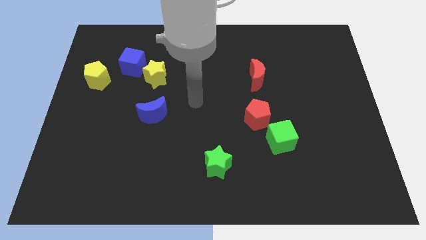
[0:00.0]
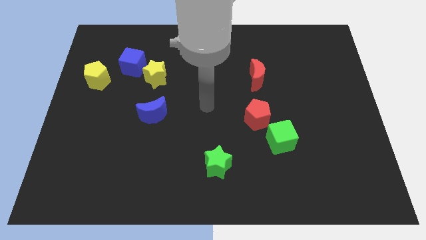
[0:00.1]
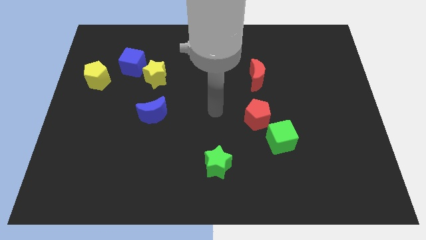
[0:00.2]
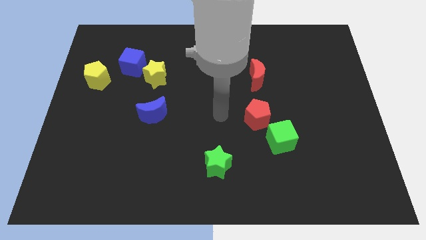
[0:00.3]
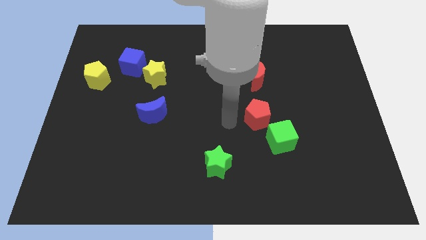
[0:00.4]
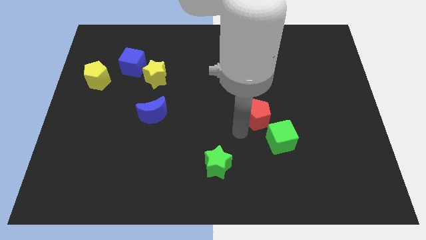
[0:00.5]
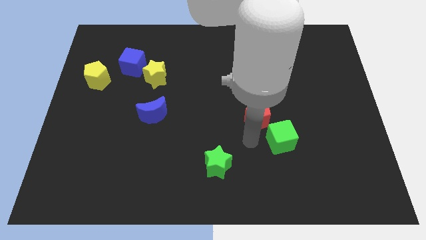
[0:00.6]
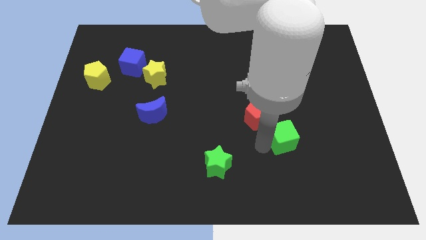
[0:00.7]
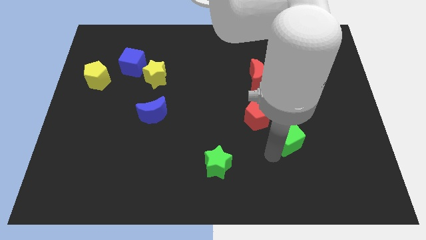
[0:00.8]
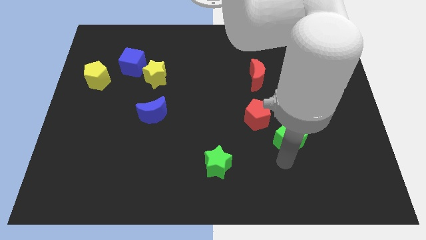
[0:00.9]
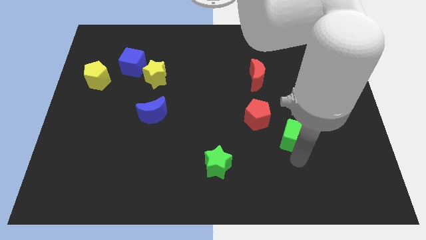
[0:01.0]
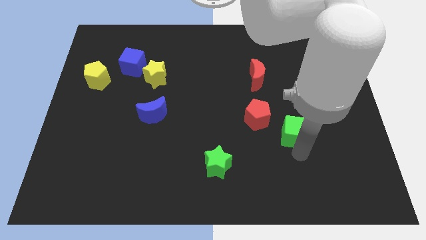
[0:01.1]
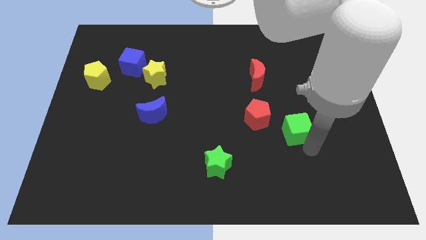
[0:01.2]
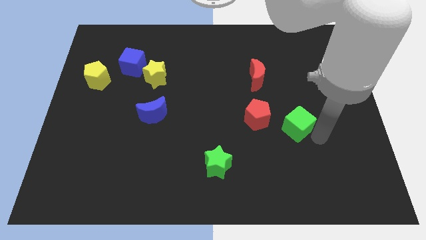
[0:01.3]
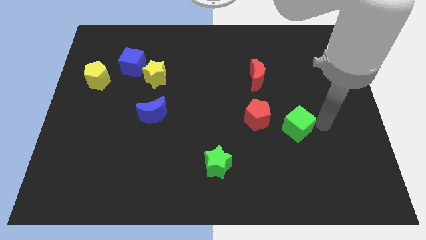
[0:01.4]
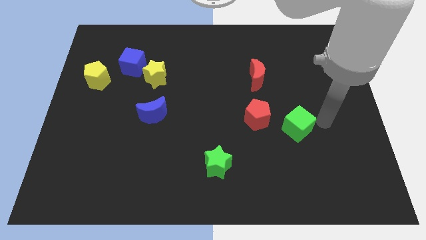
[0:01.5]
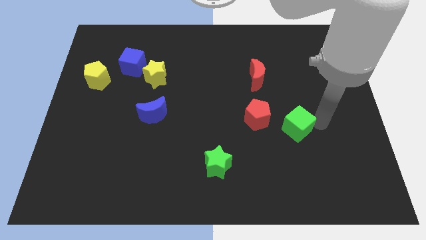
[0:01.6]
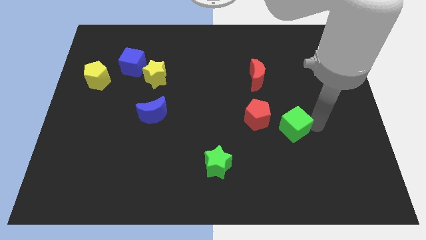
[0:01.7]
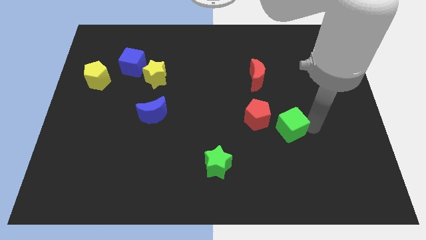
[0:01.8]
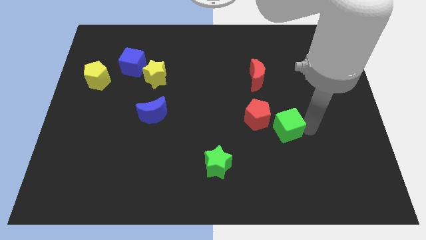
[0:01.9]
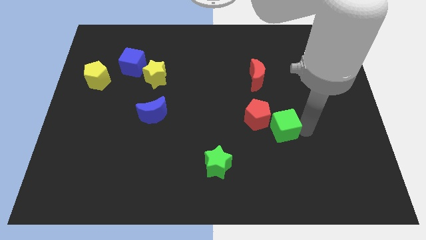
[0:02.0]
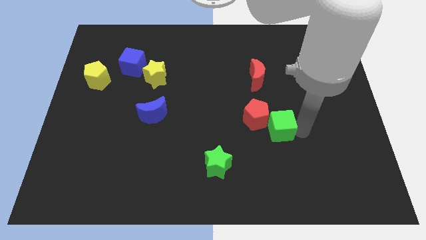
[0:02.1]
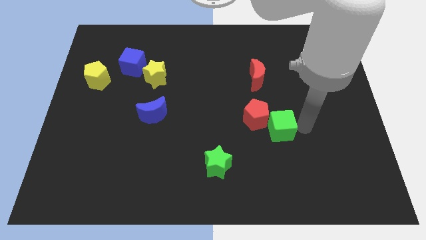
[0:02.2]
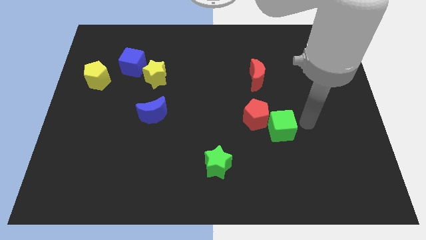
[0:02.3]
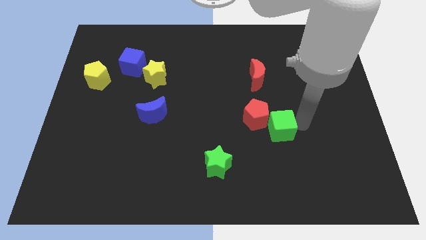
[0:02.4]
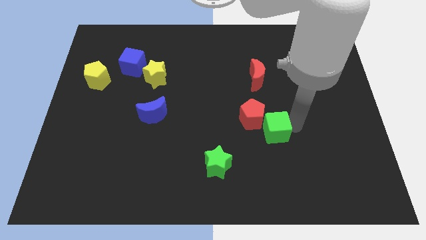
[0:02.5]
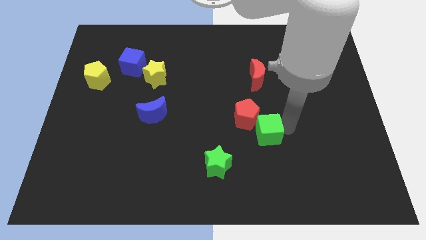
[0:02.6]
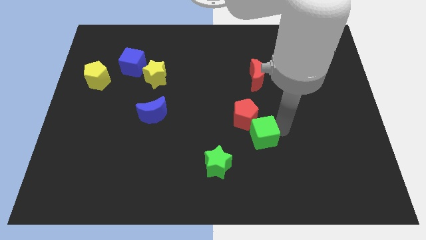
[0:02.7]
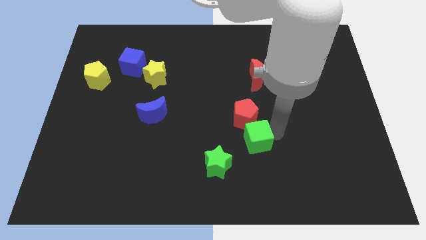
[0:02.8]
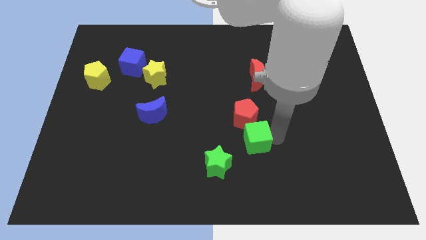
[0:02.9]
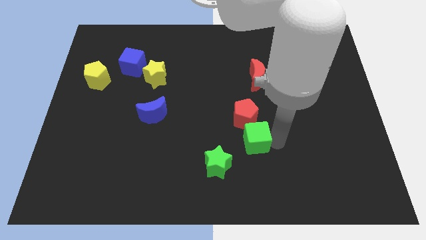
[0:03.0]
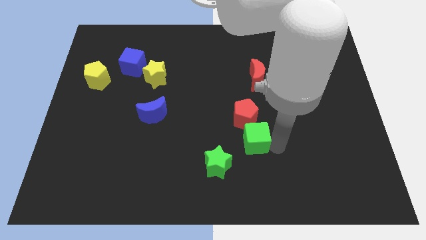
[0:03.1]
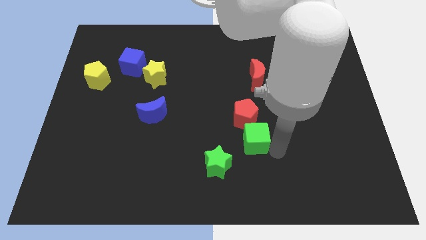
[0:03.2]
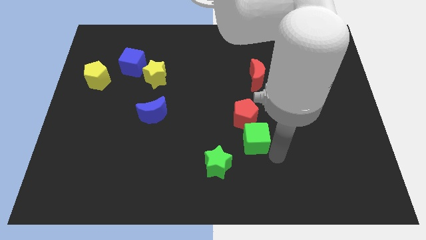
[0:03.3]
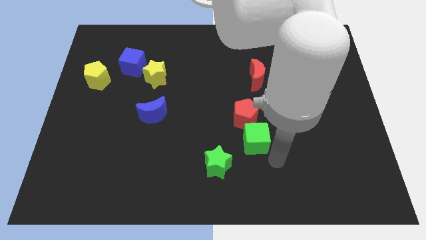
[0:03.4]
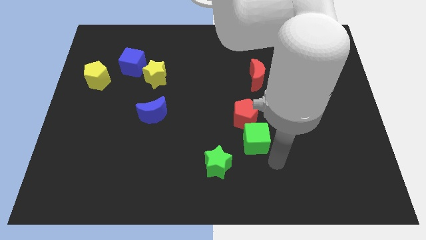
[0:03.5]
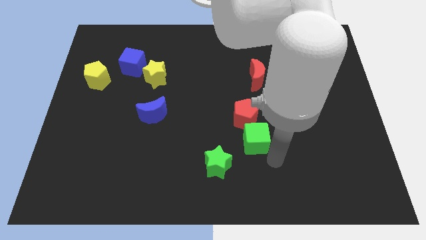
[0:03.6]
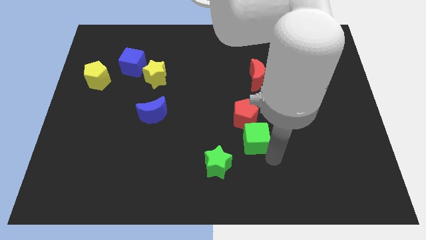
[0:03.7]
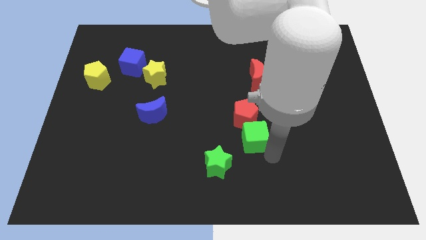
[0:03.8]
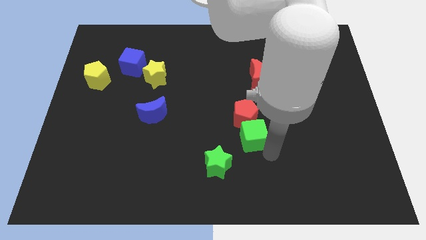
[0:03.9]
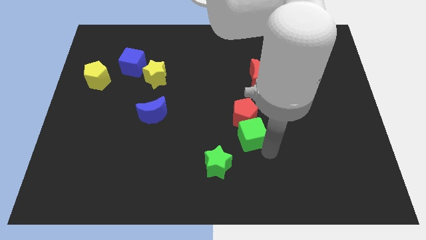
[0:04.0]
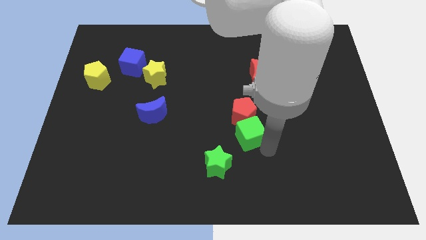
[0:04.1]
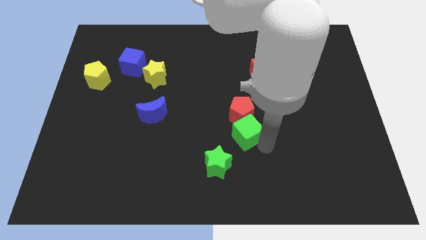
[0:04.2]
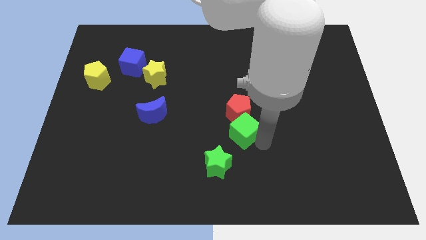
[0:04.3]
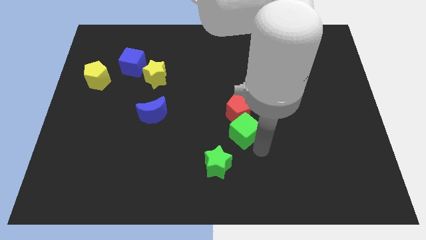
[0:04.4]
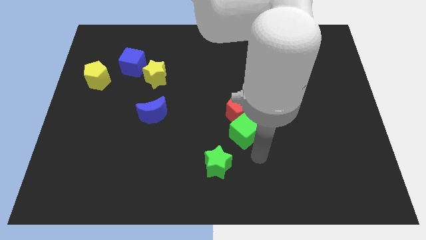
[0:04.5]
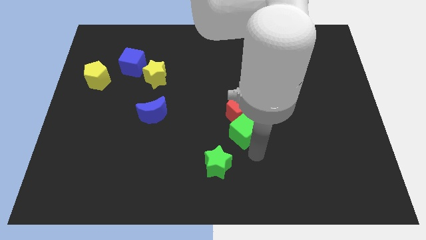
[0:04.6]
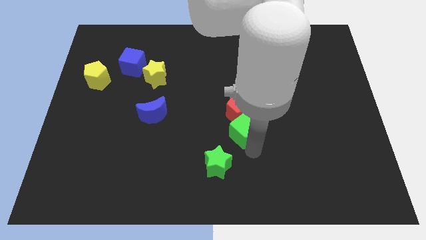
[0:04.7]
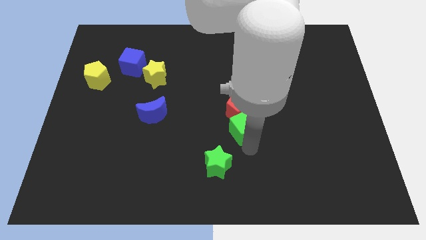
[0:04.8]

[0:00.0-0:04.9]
slide the green cube up and then to the left a little bit

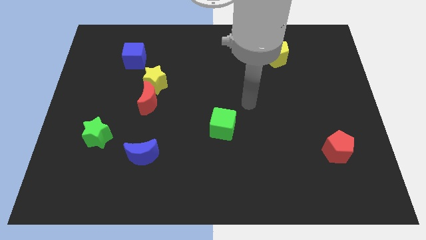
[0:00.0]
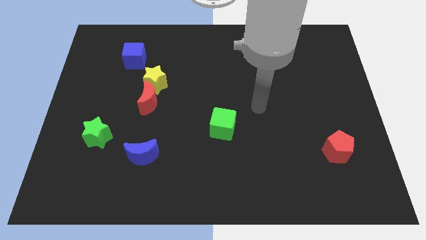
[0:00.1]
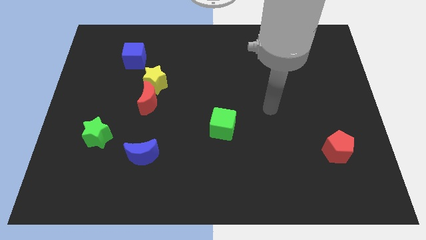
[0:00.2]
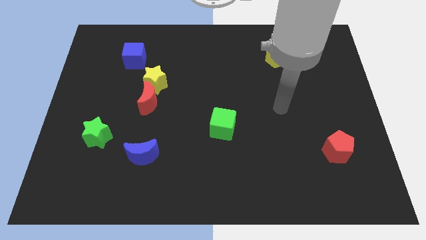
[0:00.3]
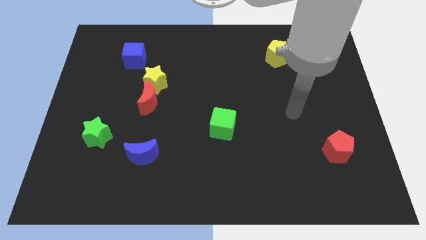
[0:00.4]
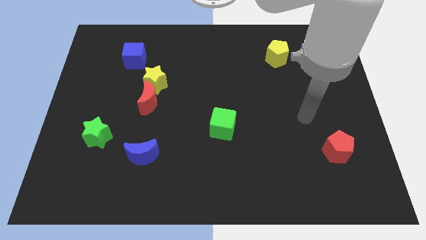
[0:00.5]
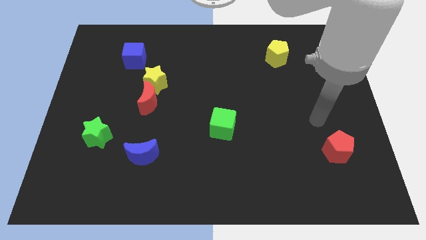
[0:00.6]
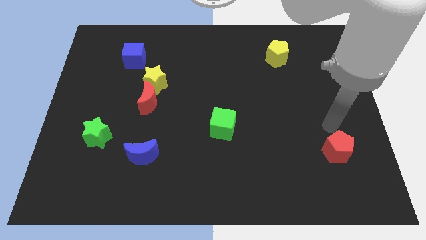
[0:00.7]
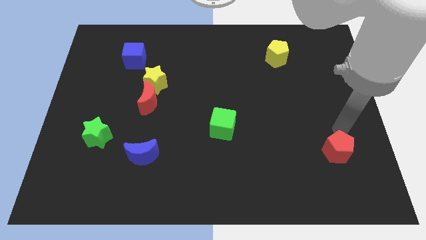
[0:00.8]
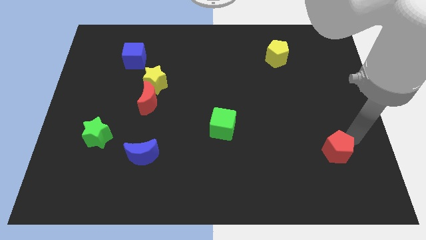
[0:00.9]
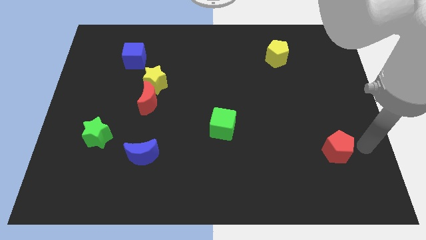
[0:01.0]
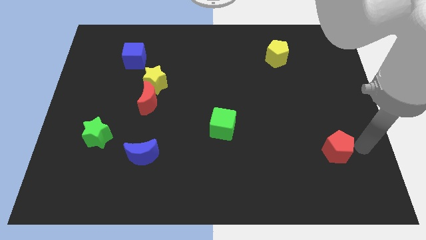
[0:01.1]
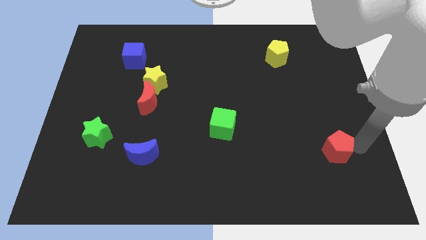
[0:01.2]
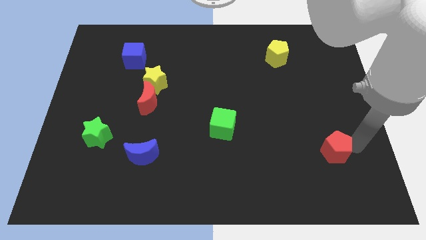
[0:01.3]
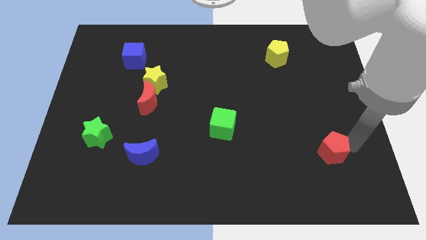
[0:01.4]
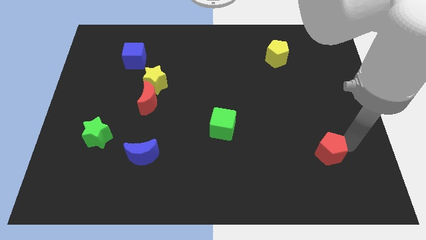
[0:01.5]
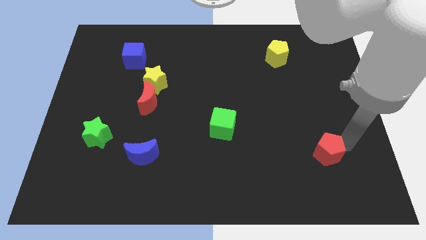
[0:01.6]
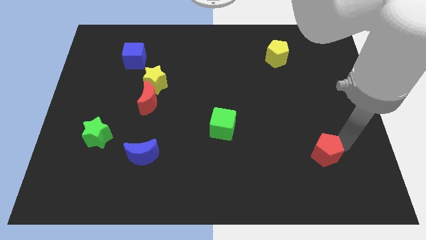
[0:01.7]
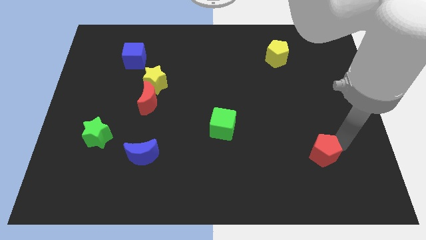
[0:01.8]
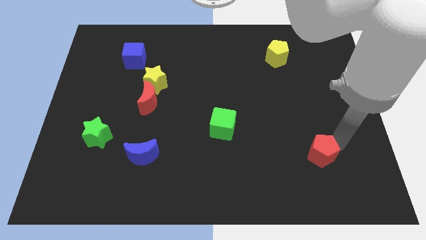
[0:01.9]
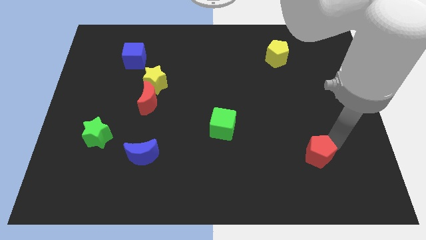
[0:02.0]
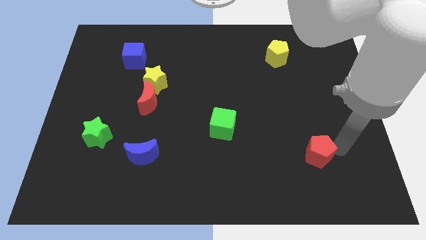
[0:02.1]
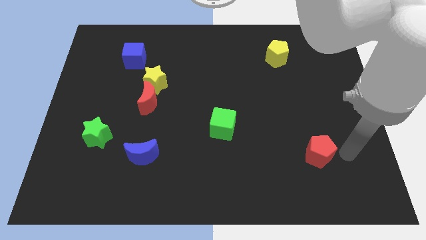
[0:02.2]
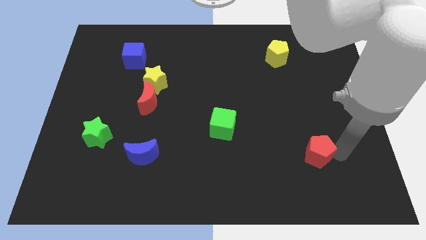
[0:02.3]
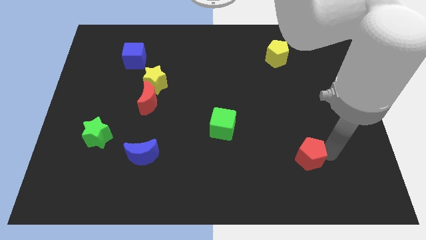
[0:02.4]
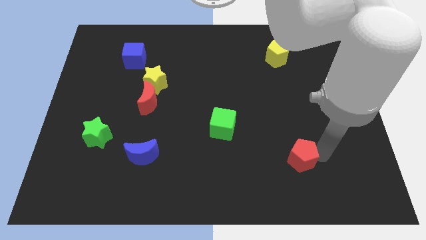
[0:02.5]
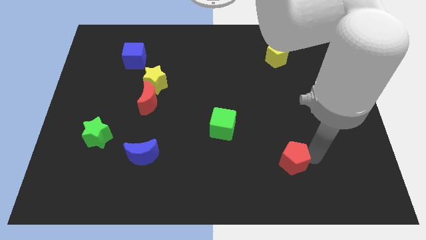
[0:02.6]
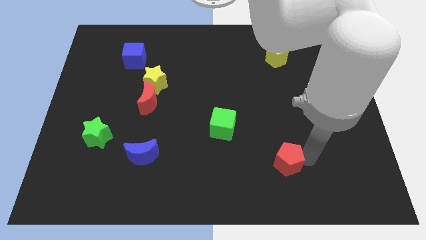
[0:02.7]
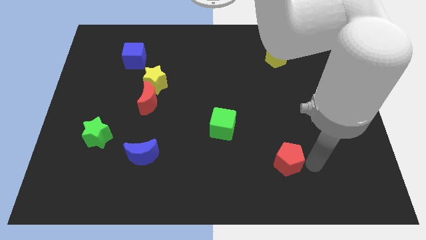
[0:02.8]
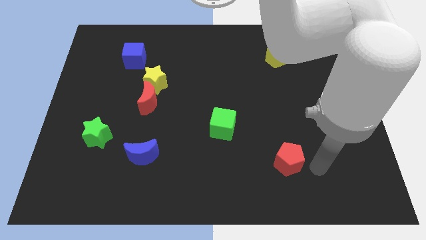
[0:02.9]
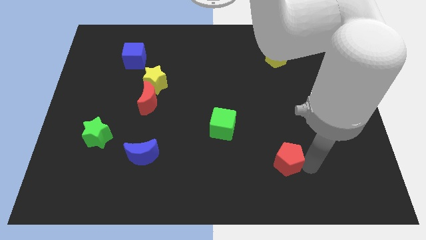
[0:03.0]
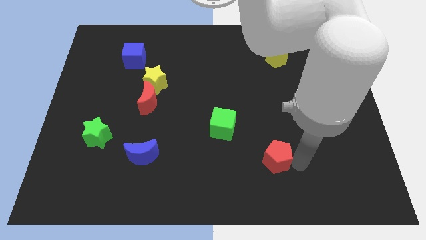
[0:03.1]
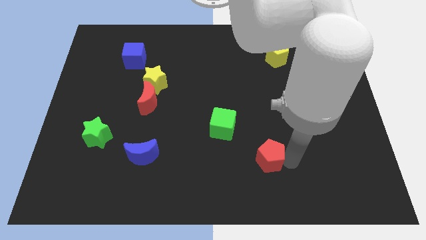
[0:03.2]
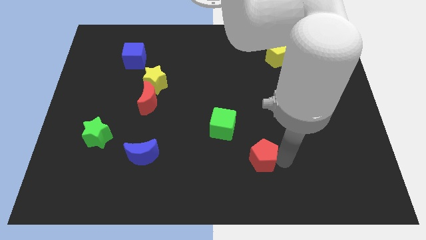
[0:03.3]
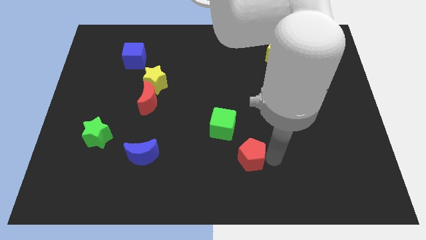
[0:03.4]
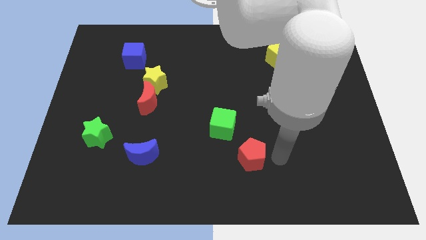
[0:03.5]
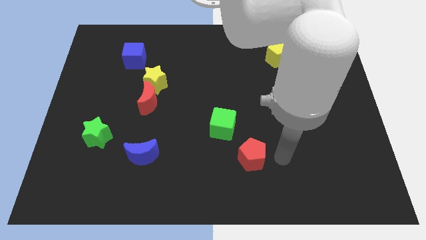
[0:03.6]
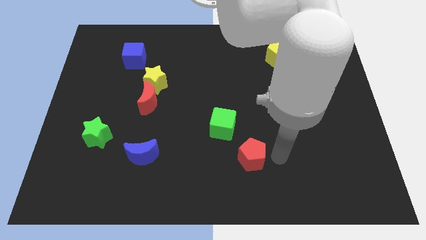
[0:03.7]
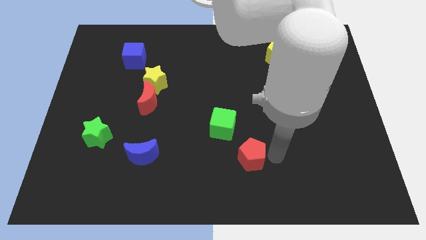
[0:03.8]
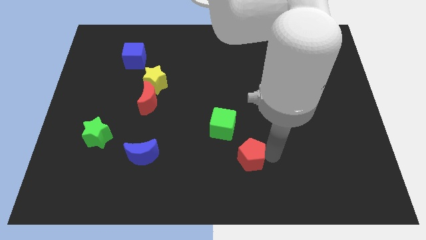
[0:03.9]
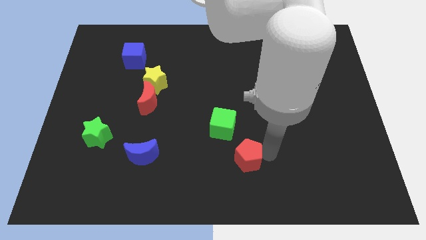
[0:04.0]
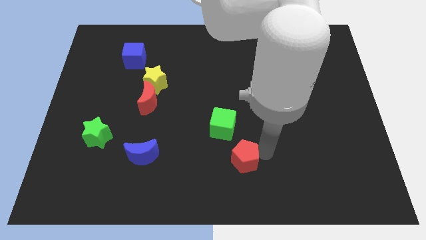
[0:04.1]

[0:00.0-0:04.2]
slide the red pentagon left
